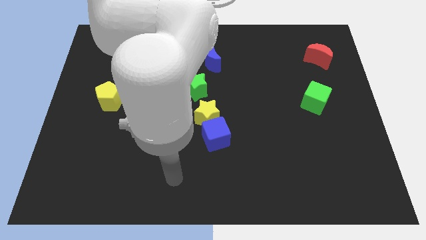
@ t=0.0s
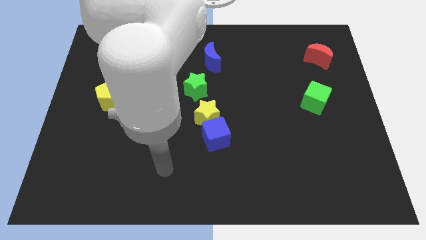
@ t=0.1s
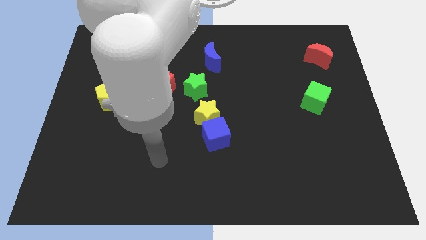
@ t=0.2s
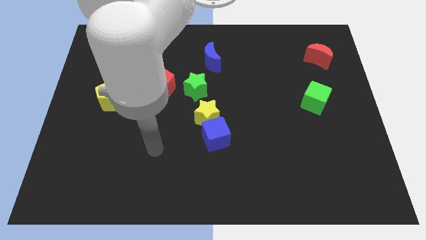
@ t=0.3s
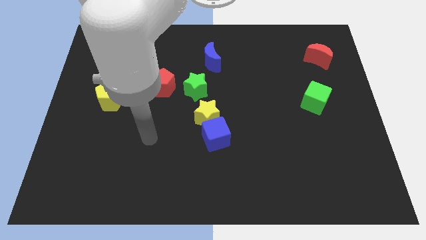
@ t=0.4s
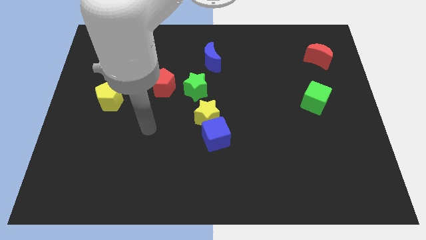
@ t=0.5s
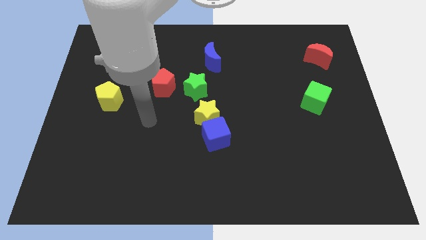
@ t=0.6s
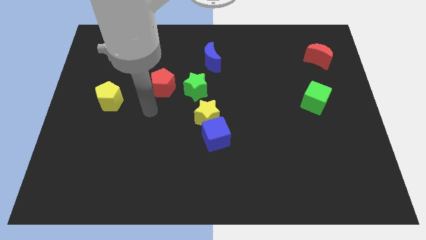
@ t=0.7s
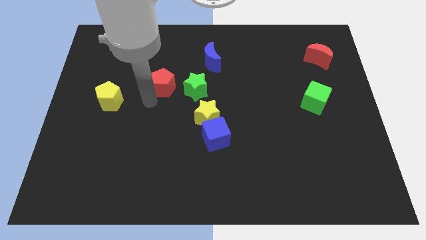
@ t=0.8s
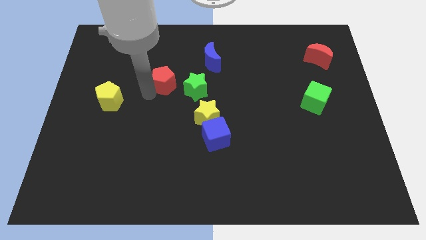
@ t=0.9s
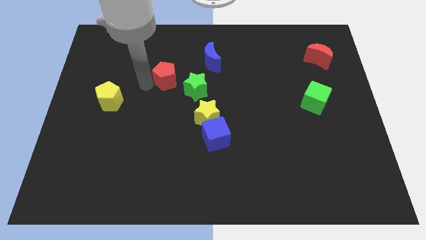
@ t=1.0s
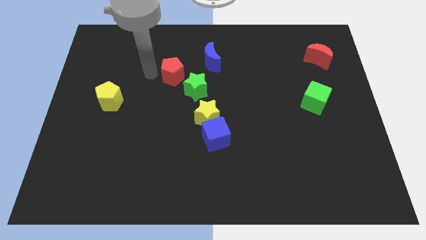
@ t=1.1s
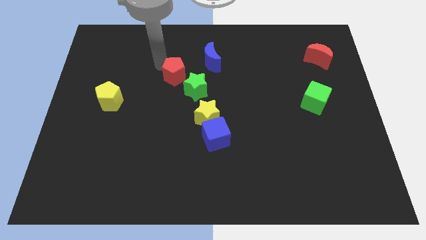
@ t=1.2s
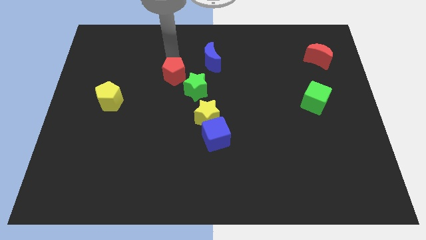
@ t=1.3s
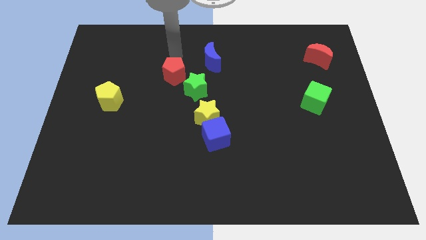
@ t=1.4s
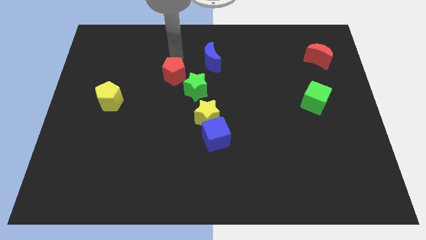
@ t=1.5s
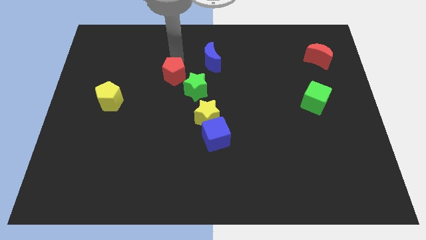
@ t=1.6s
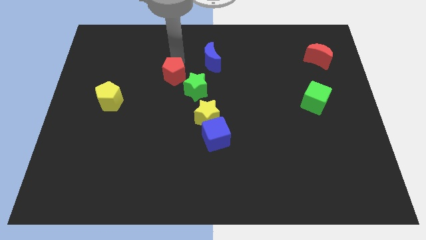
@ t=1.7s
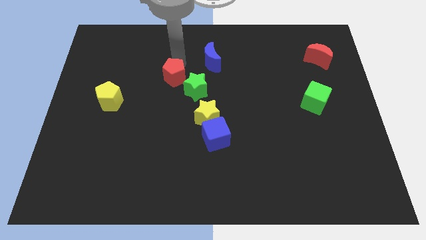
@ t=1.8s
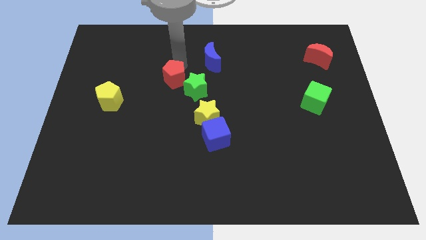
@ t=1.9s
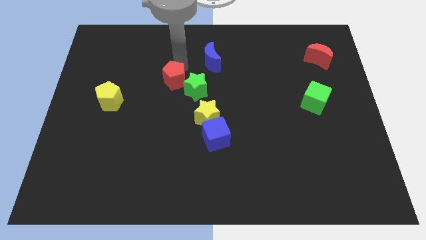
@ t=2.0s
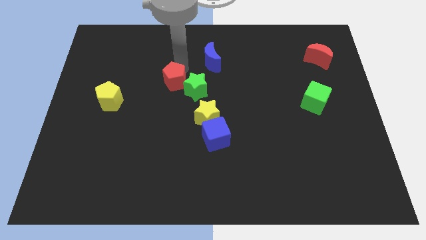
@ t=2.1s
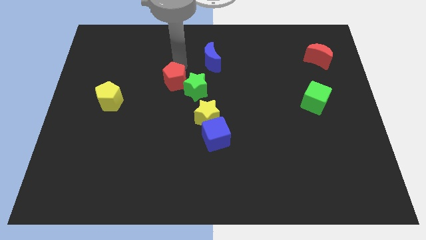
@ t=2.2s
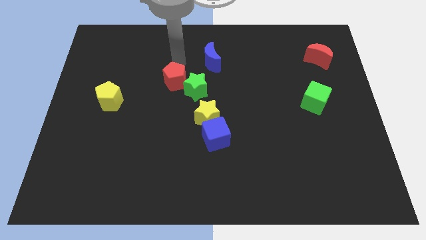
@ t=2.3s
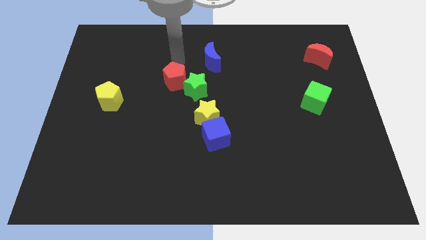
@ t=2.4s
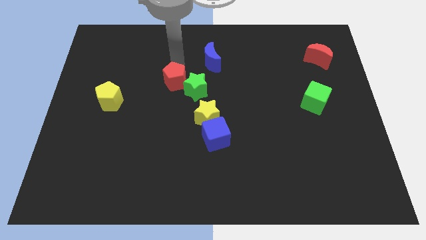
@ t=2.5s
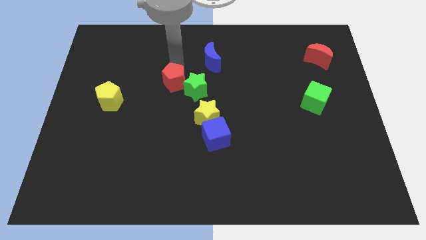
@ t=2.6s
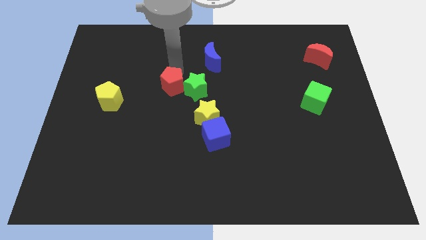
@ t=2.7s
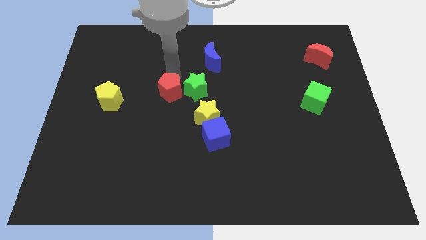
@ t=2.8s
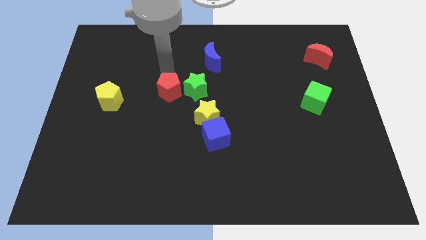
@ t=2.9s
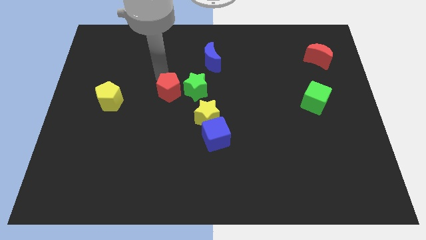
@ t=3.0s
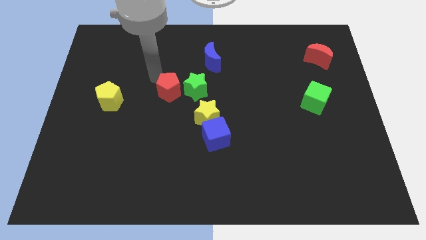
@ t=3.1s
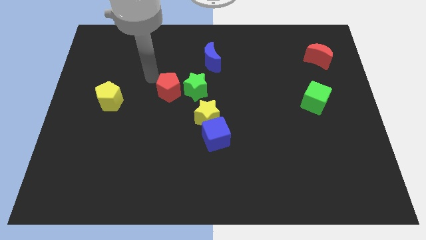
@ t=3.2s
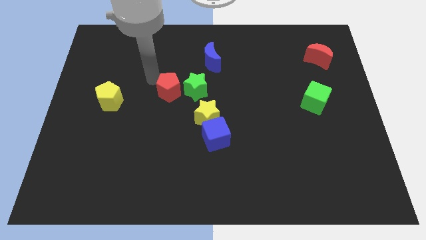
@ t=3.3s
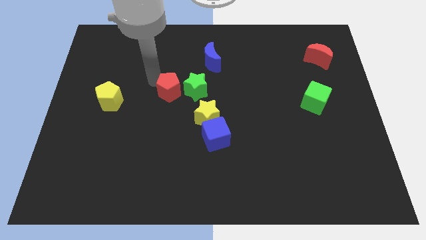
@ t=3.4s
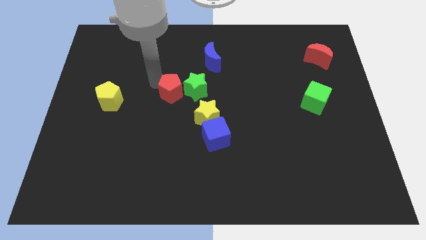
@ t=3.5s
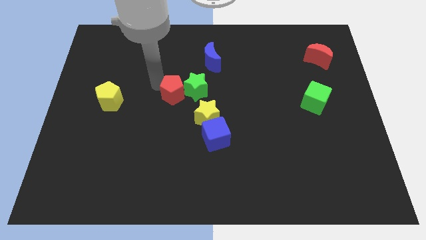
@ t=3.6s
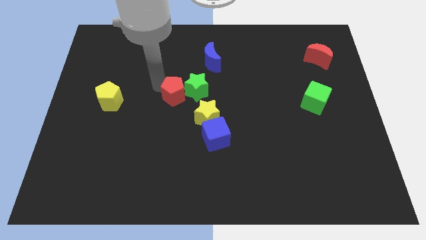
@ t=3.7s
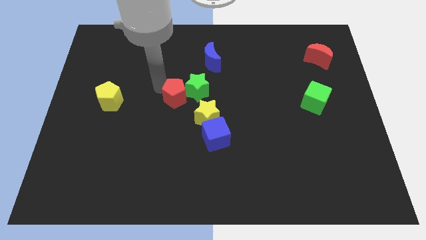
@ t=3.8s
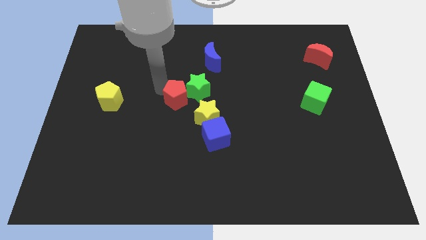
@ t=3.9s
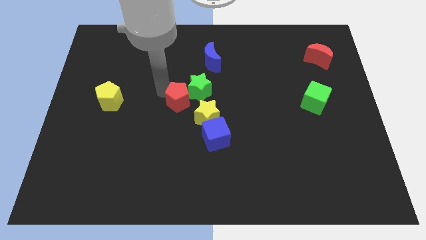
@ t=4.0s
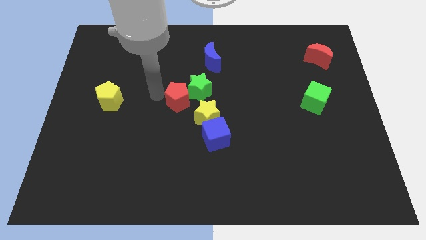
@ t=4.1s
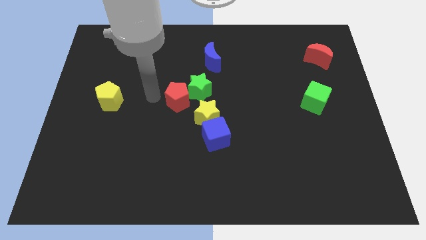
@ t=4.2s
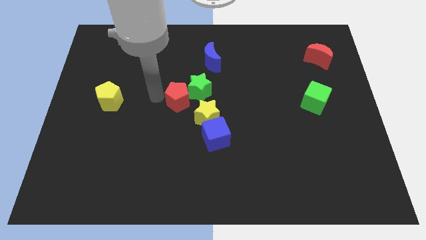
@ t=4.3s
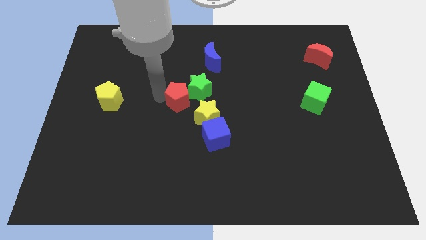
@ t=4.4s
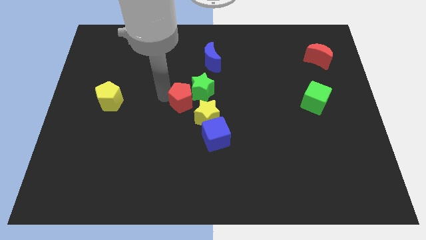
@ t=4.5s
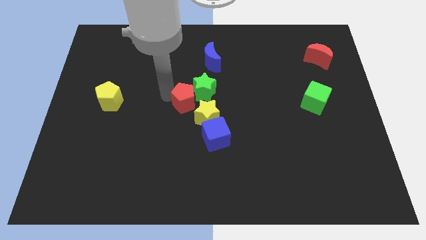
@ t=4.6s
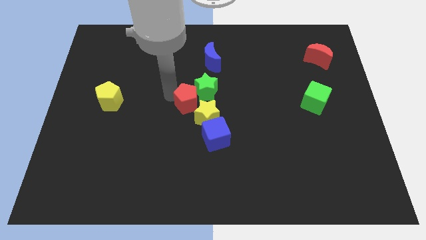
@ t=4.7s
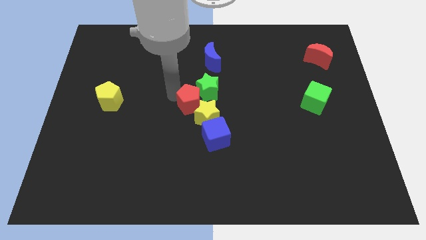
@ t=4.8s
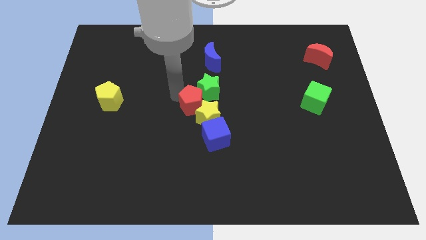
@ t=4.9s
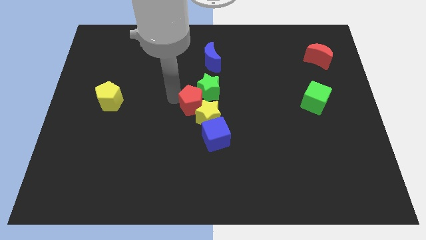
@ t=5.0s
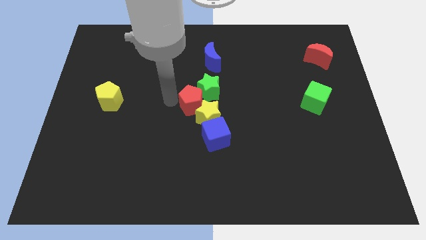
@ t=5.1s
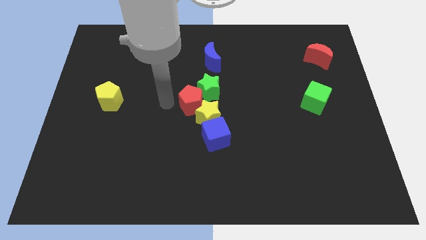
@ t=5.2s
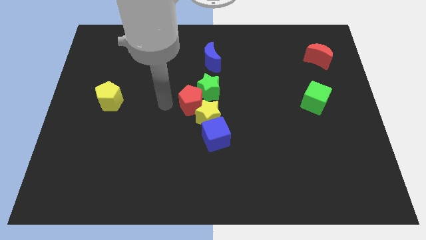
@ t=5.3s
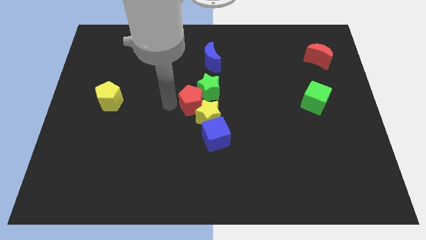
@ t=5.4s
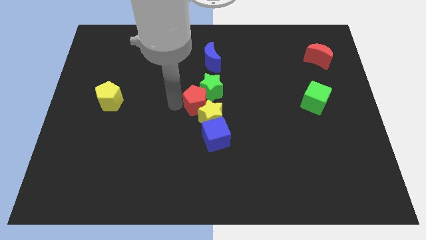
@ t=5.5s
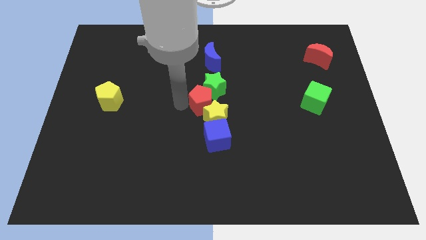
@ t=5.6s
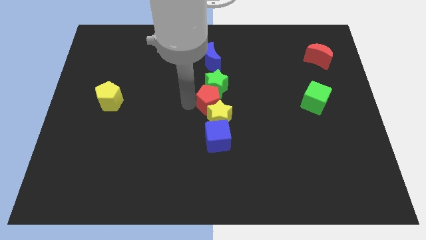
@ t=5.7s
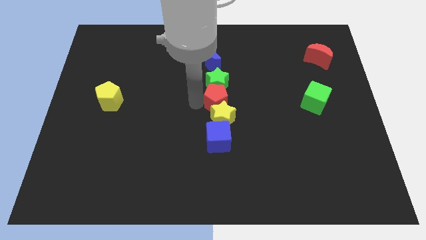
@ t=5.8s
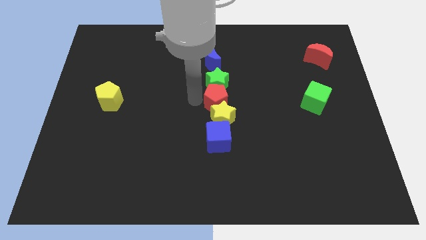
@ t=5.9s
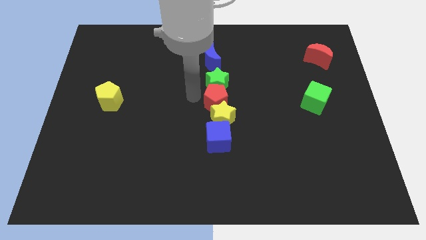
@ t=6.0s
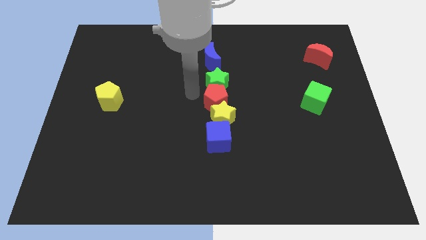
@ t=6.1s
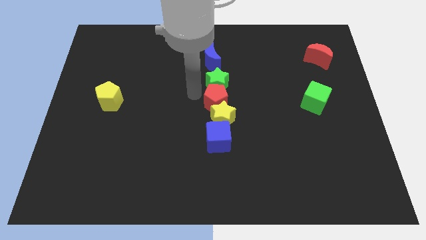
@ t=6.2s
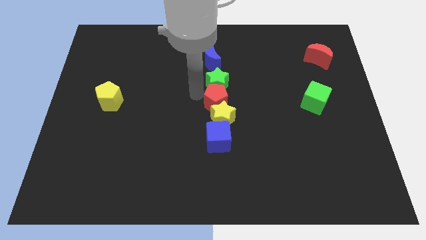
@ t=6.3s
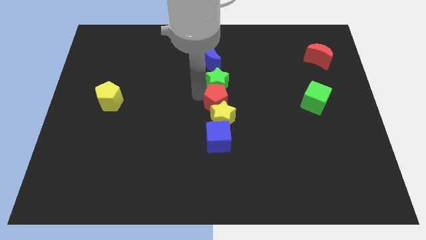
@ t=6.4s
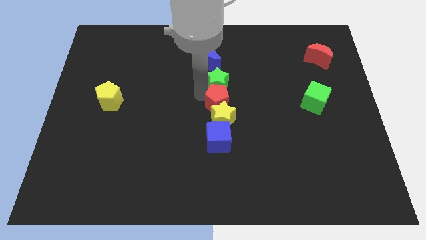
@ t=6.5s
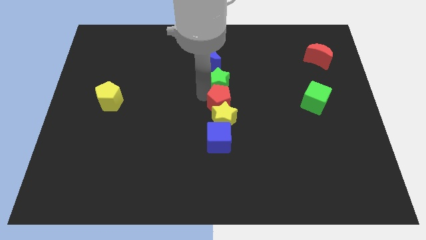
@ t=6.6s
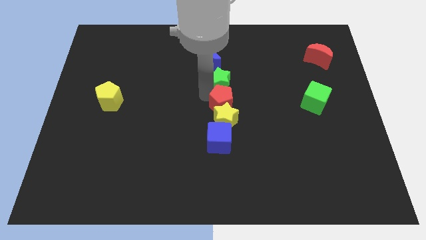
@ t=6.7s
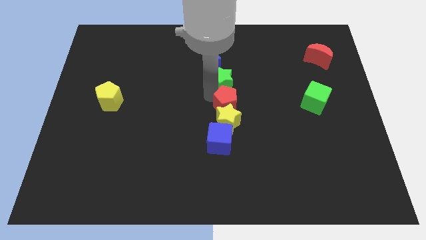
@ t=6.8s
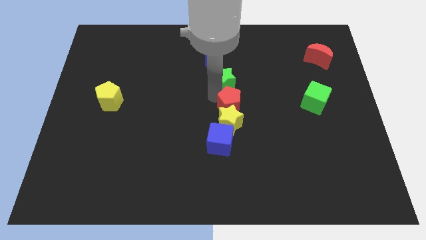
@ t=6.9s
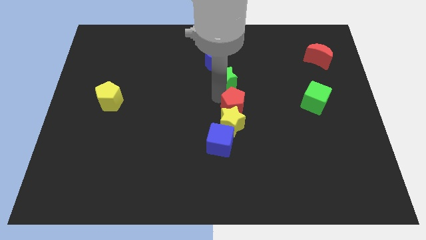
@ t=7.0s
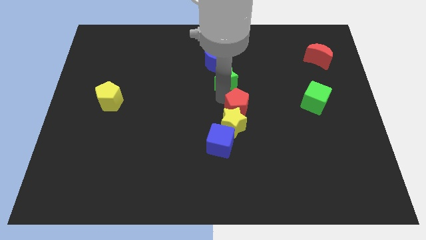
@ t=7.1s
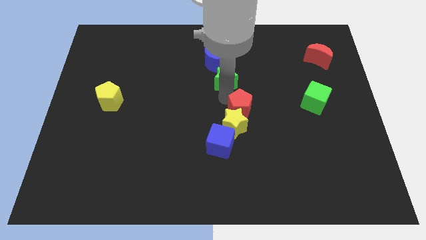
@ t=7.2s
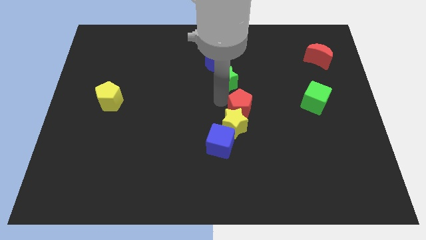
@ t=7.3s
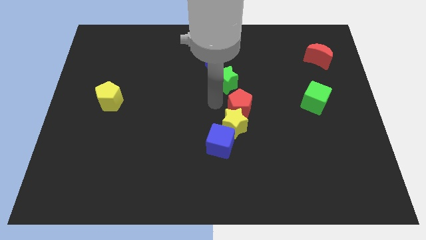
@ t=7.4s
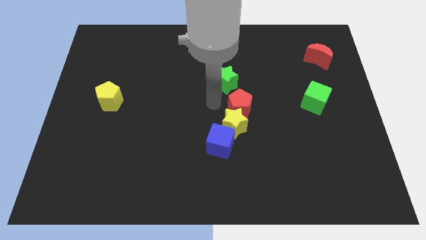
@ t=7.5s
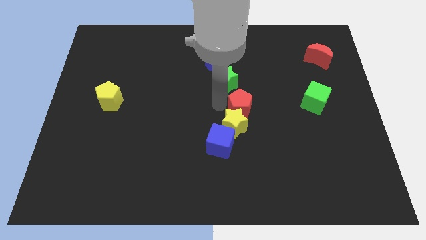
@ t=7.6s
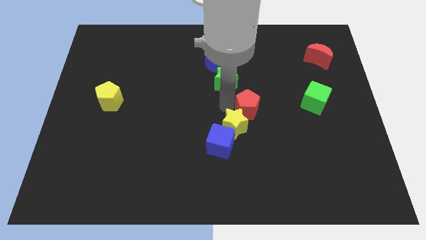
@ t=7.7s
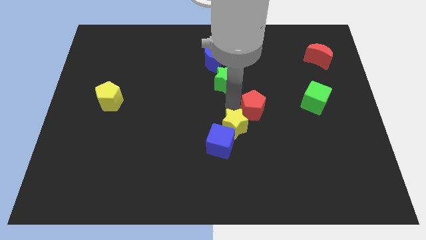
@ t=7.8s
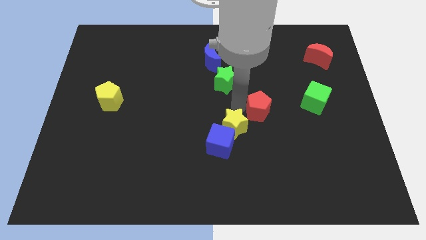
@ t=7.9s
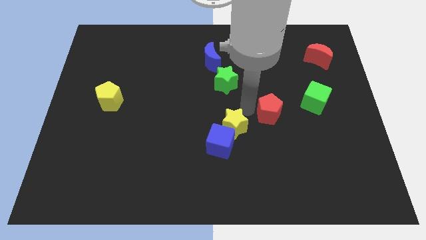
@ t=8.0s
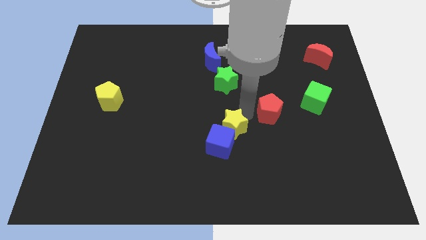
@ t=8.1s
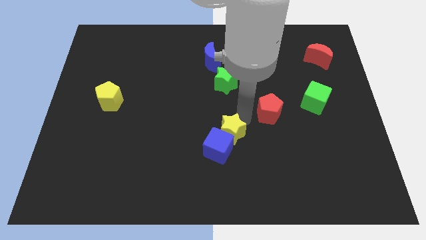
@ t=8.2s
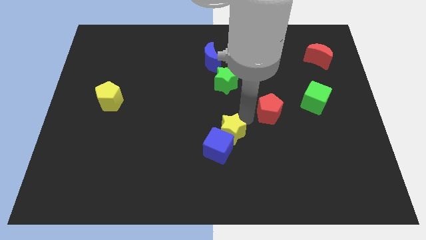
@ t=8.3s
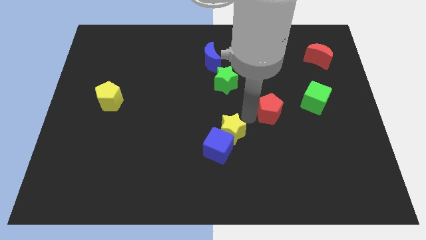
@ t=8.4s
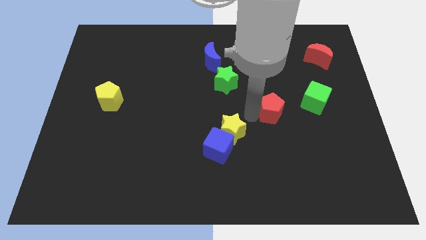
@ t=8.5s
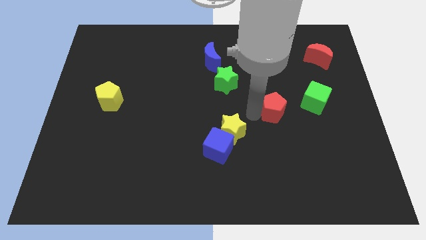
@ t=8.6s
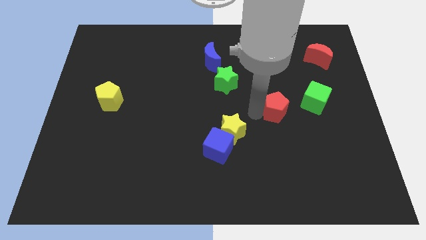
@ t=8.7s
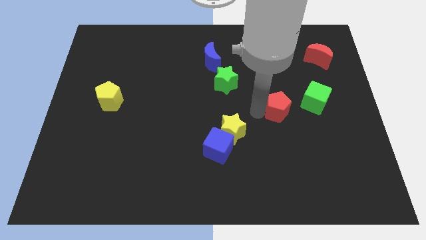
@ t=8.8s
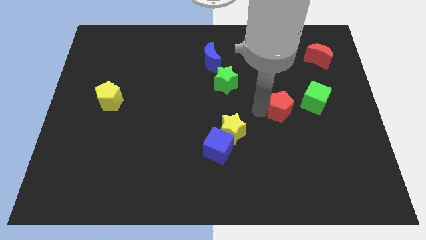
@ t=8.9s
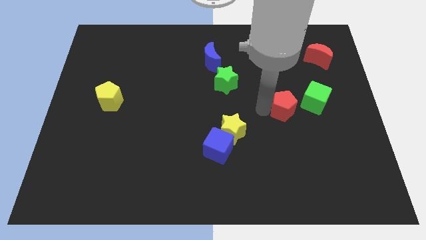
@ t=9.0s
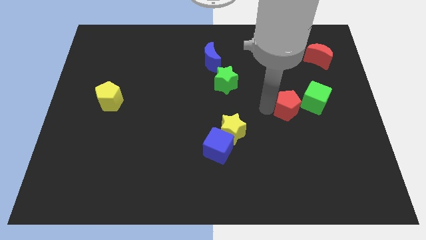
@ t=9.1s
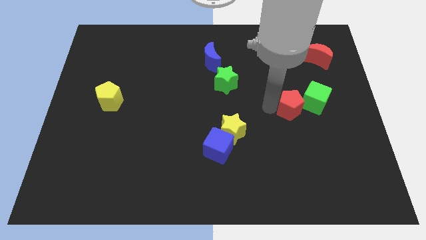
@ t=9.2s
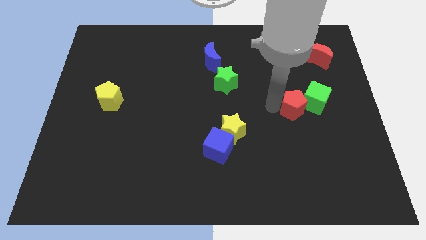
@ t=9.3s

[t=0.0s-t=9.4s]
move the red pentagon towards the green cube
